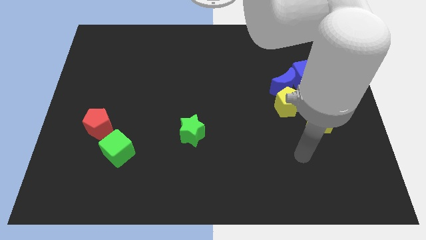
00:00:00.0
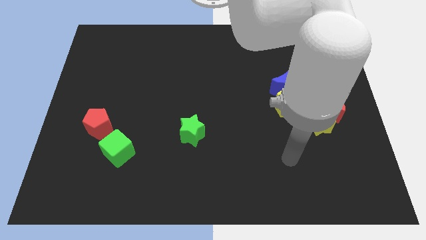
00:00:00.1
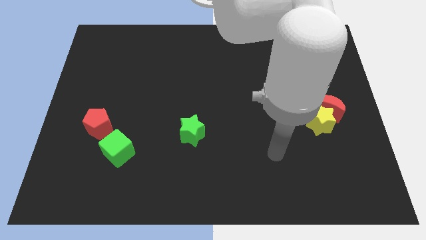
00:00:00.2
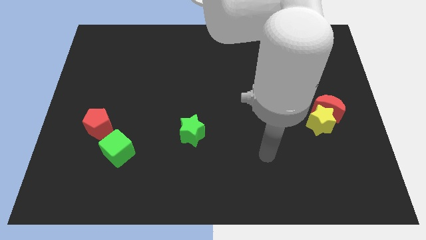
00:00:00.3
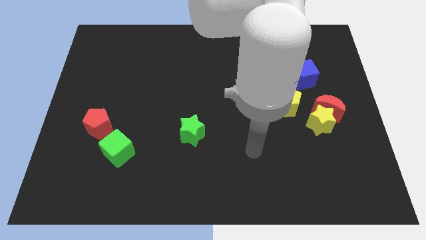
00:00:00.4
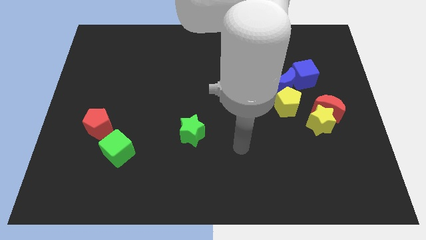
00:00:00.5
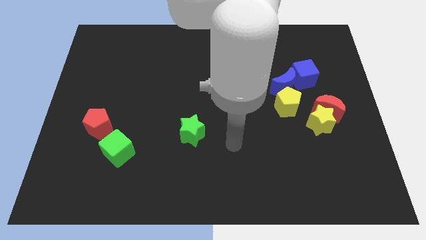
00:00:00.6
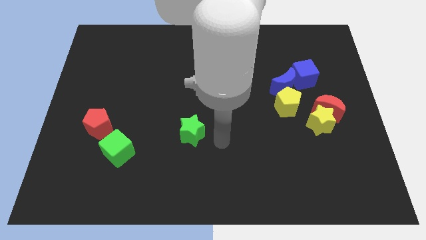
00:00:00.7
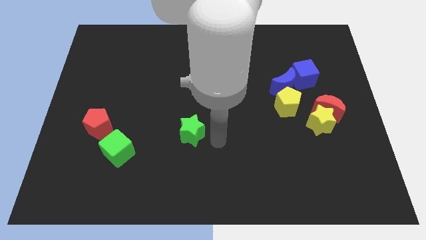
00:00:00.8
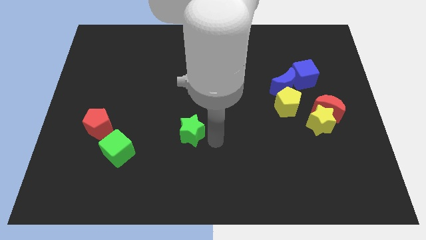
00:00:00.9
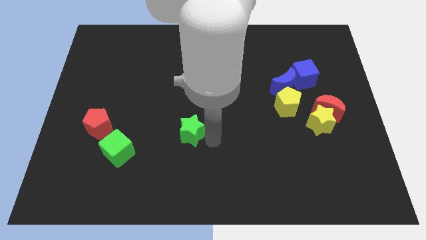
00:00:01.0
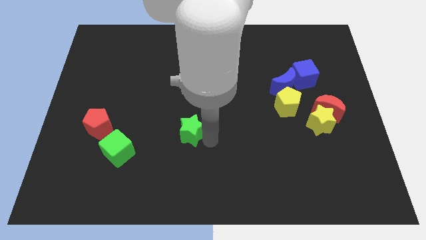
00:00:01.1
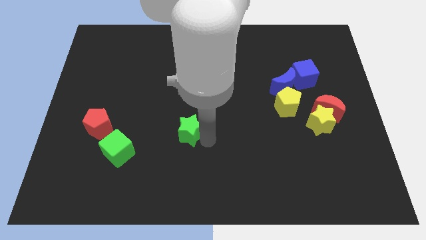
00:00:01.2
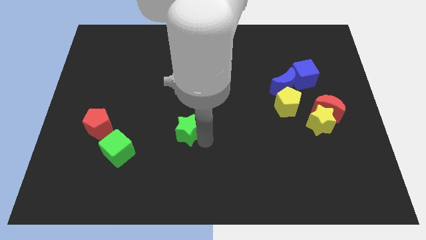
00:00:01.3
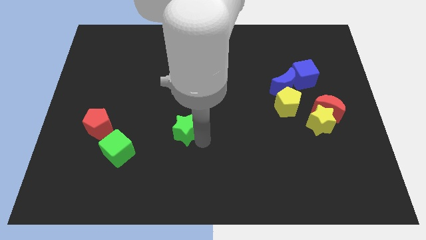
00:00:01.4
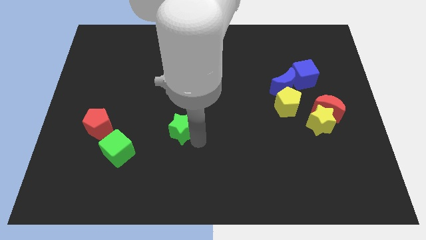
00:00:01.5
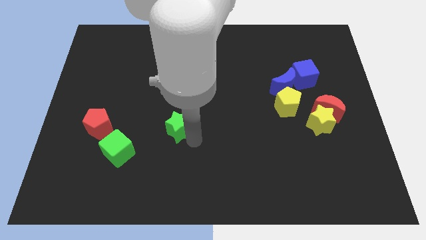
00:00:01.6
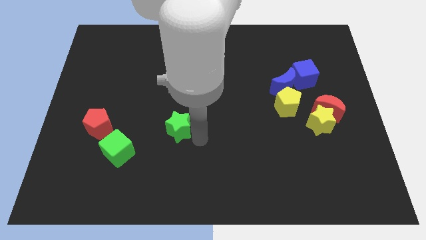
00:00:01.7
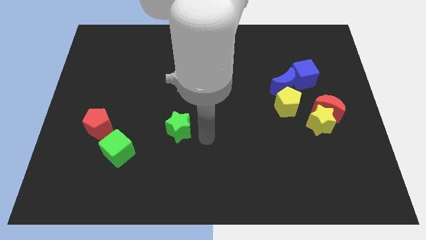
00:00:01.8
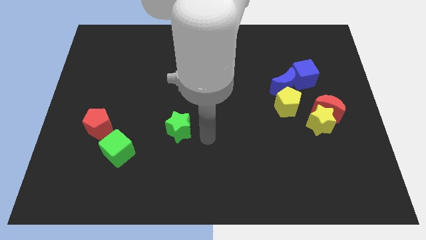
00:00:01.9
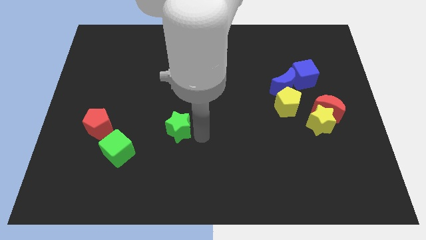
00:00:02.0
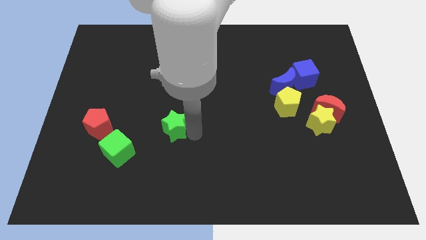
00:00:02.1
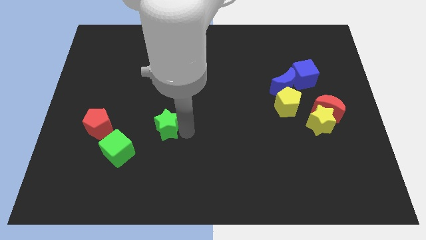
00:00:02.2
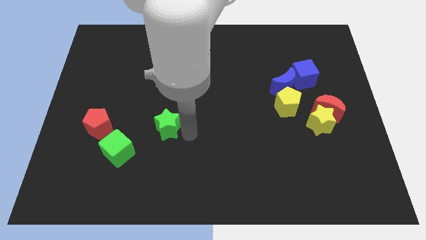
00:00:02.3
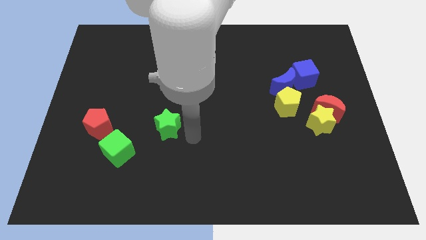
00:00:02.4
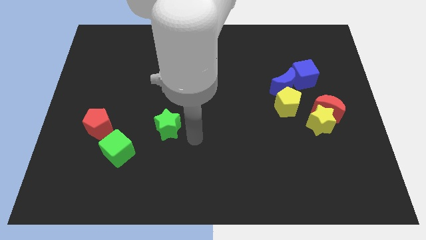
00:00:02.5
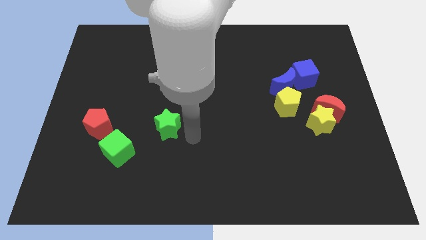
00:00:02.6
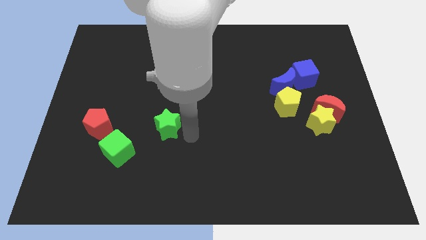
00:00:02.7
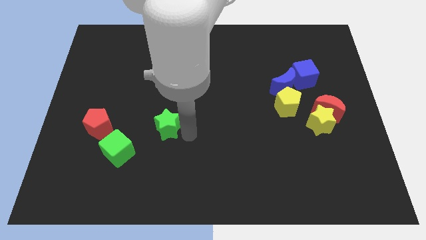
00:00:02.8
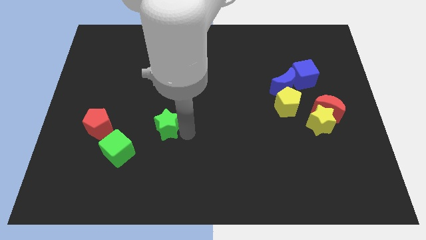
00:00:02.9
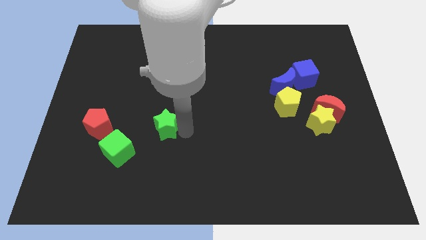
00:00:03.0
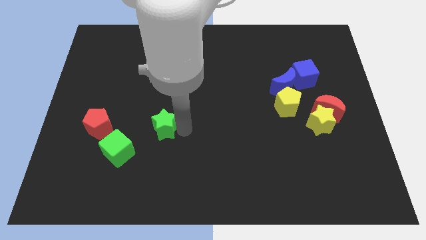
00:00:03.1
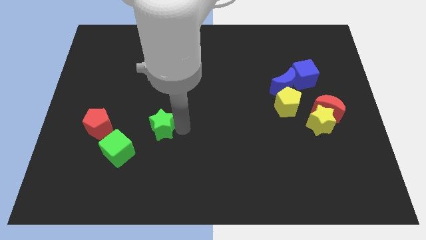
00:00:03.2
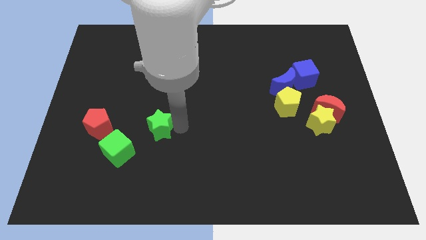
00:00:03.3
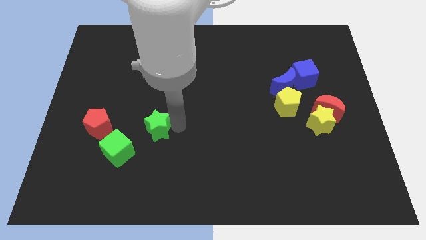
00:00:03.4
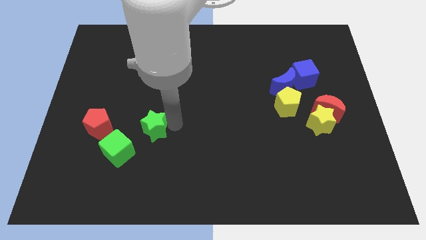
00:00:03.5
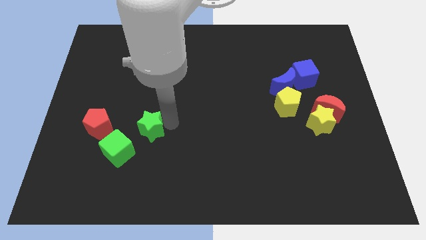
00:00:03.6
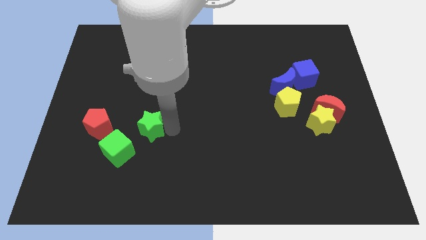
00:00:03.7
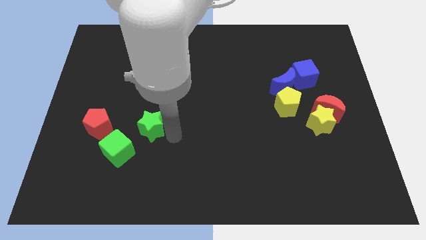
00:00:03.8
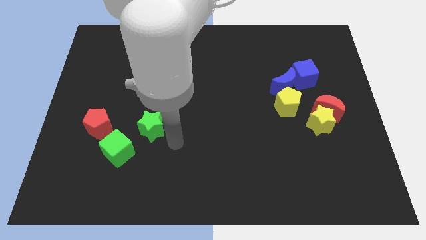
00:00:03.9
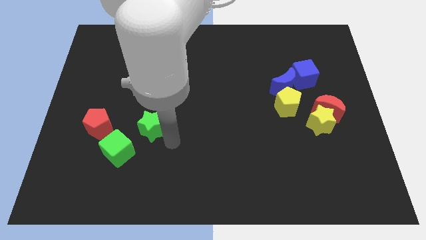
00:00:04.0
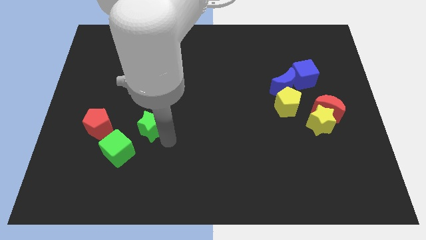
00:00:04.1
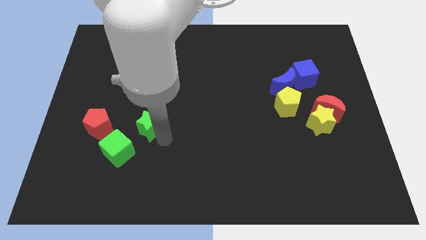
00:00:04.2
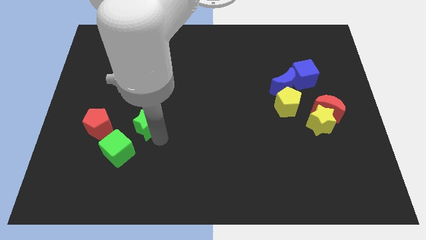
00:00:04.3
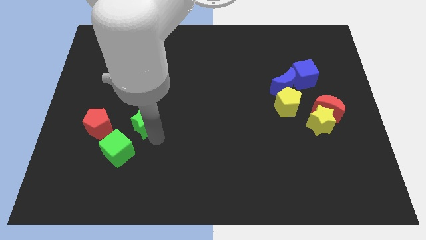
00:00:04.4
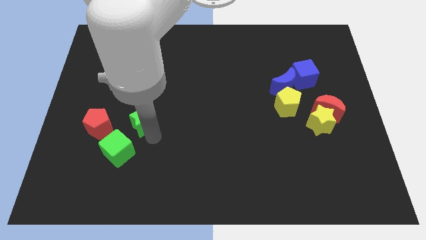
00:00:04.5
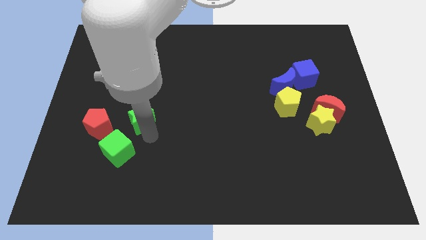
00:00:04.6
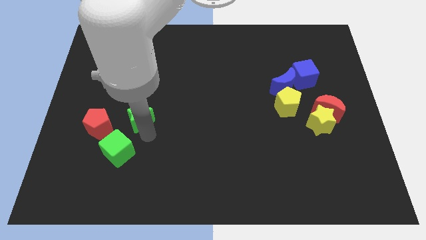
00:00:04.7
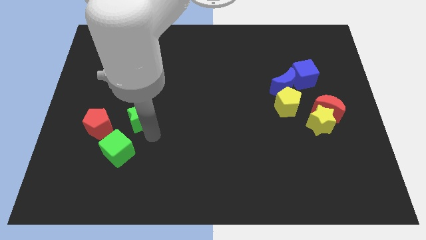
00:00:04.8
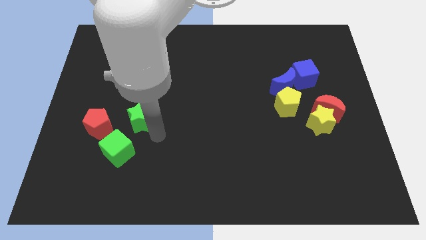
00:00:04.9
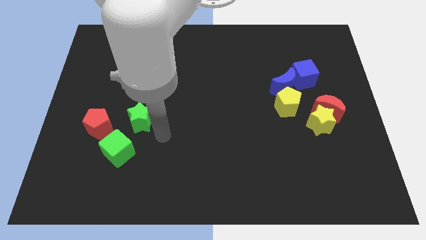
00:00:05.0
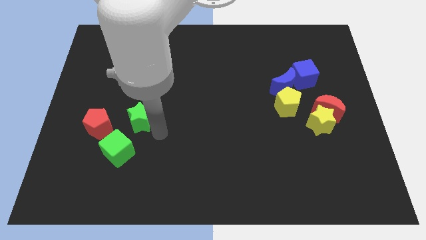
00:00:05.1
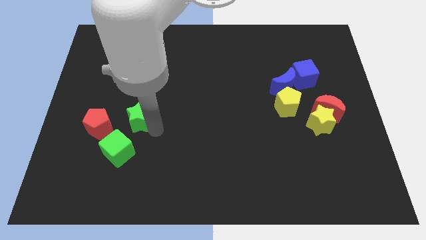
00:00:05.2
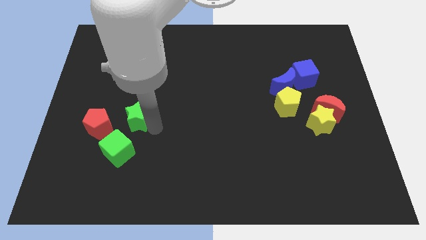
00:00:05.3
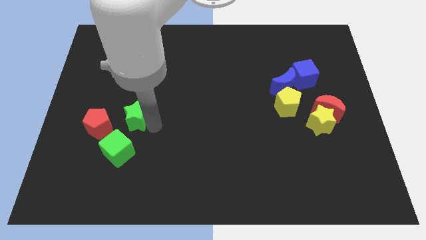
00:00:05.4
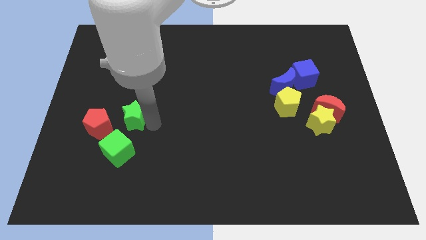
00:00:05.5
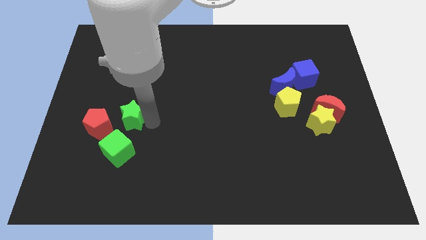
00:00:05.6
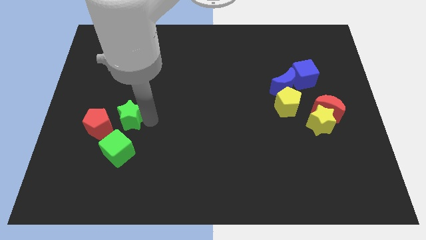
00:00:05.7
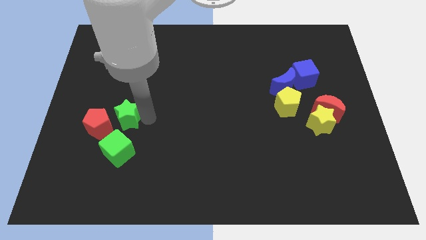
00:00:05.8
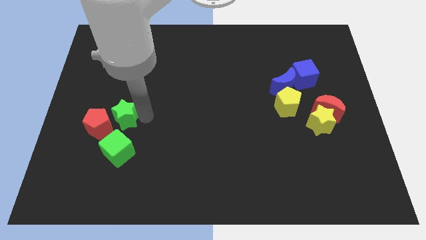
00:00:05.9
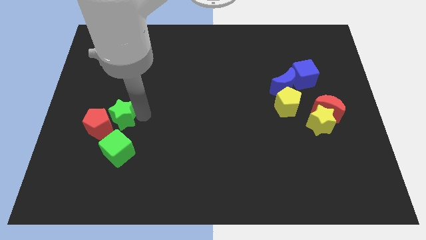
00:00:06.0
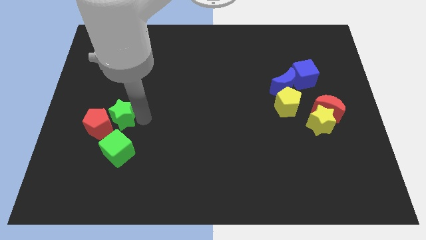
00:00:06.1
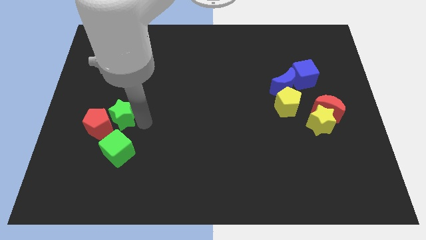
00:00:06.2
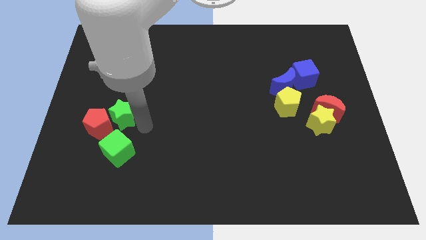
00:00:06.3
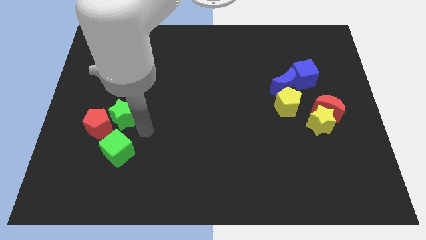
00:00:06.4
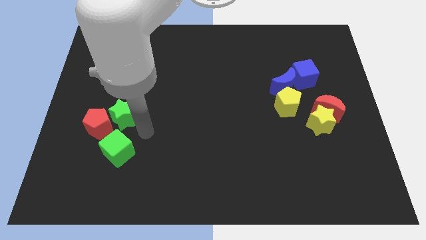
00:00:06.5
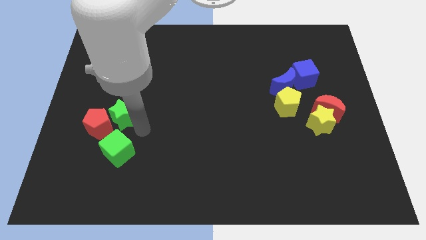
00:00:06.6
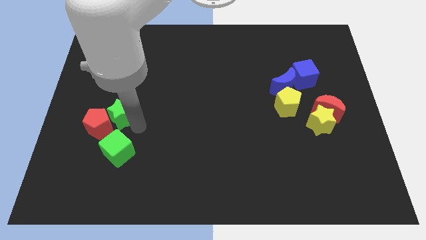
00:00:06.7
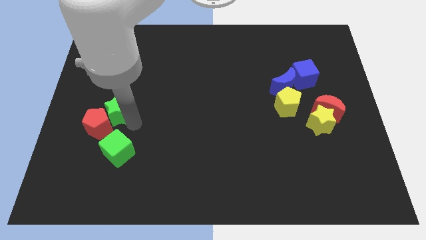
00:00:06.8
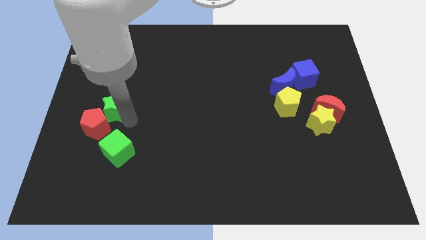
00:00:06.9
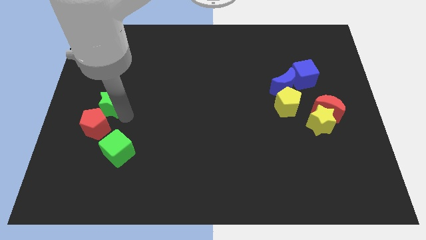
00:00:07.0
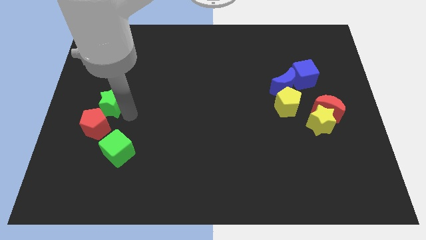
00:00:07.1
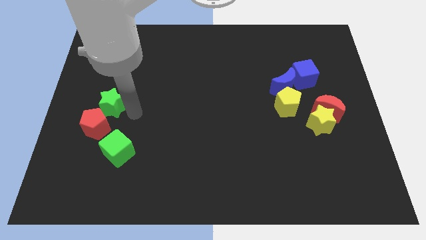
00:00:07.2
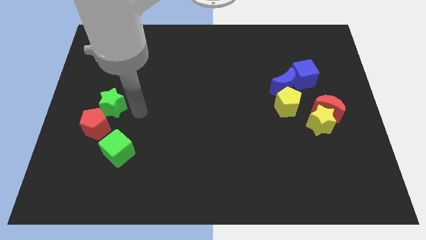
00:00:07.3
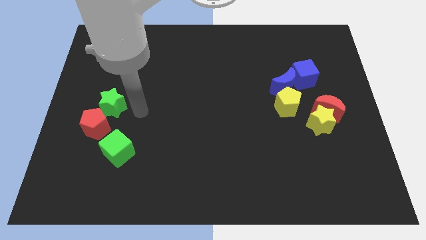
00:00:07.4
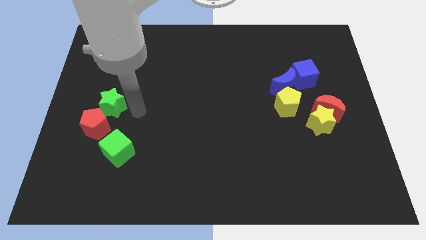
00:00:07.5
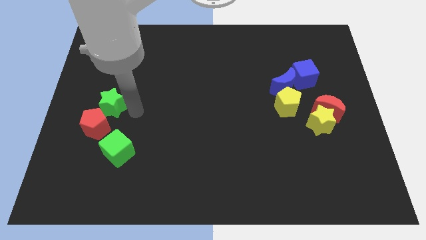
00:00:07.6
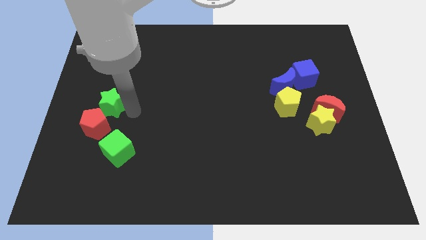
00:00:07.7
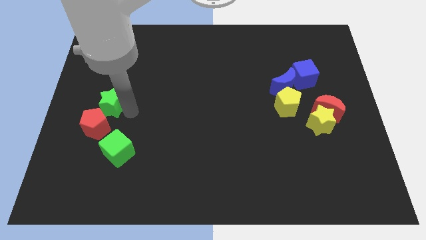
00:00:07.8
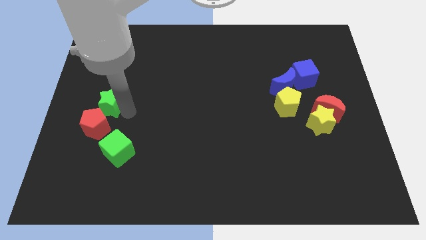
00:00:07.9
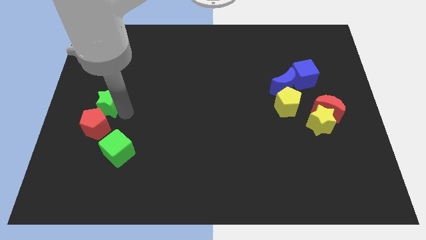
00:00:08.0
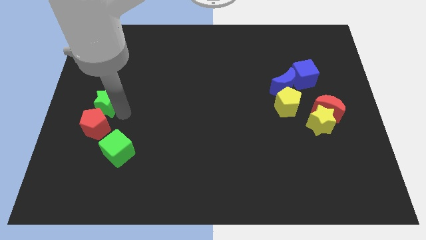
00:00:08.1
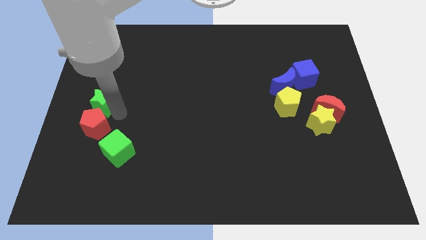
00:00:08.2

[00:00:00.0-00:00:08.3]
push the green star to the left side
